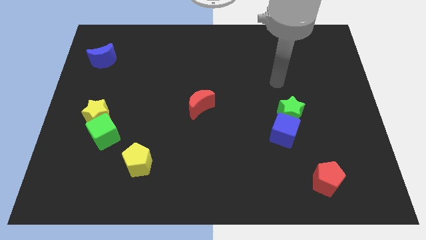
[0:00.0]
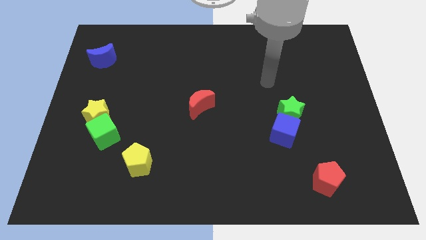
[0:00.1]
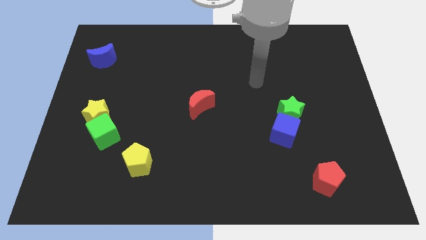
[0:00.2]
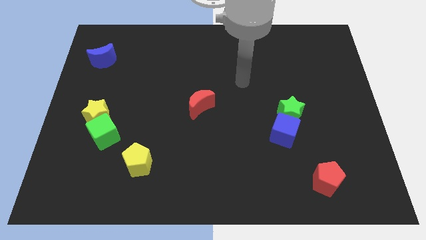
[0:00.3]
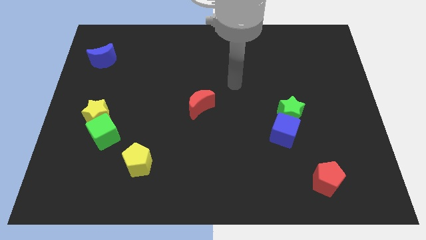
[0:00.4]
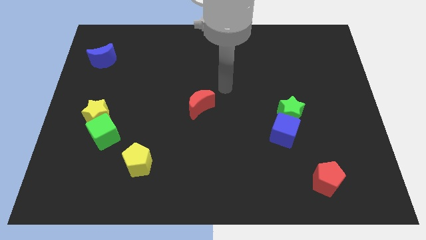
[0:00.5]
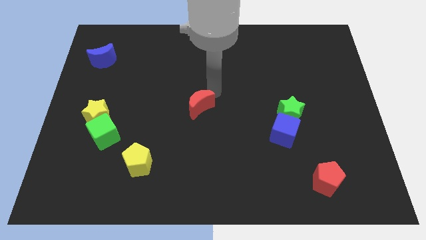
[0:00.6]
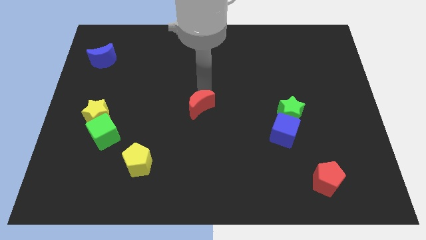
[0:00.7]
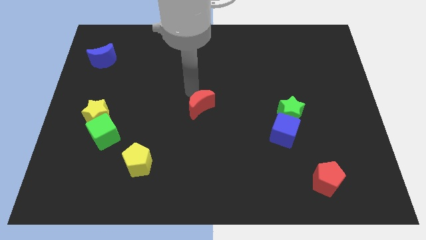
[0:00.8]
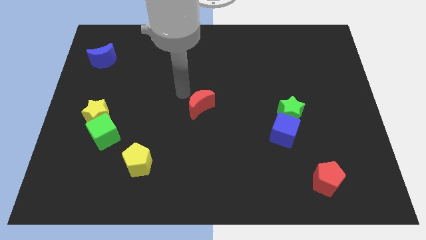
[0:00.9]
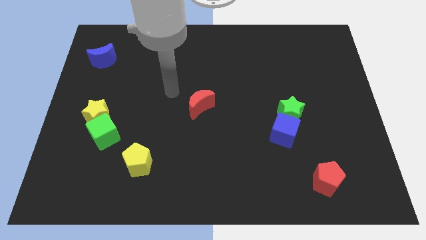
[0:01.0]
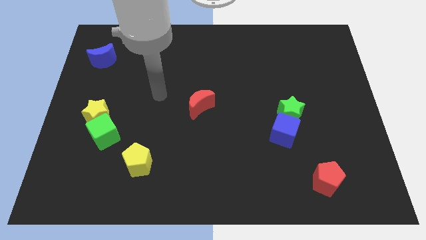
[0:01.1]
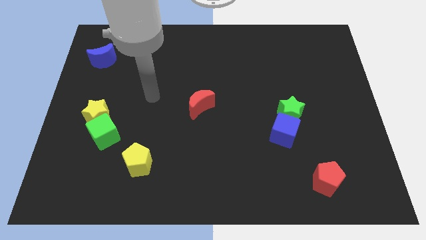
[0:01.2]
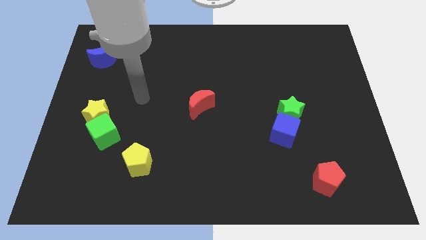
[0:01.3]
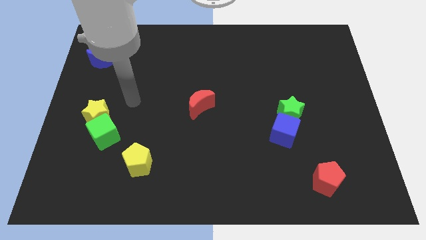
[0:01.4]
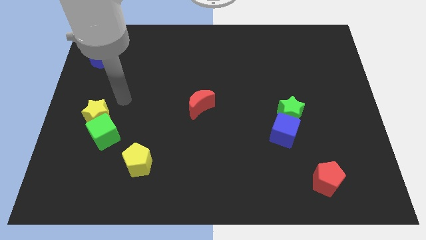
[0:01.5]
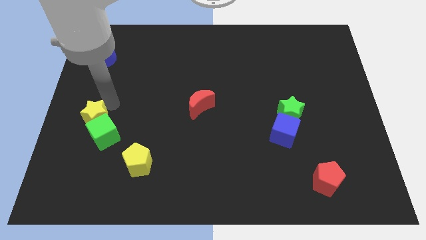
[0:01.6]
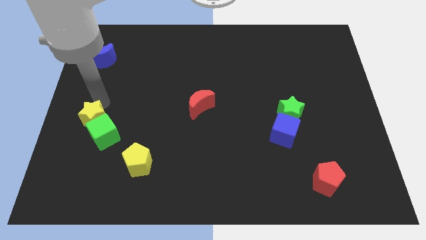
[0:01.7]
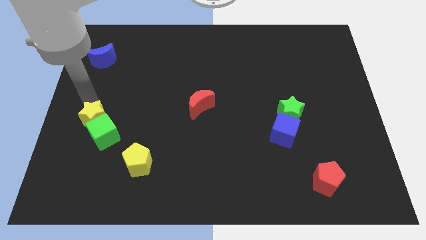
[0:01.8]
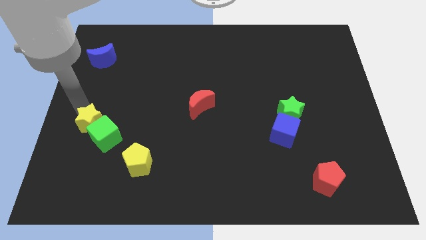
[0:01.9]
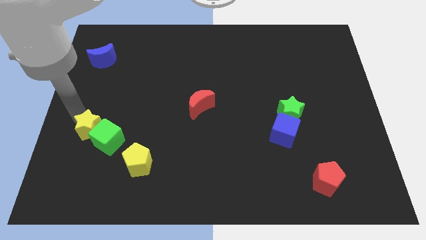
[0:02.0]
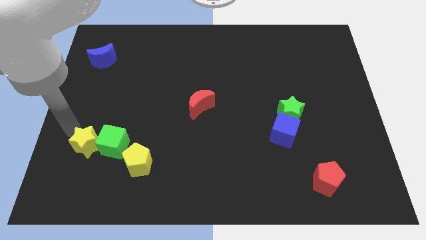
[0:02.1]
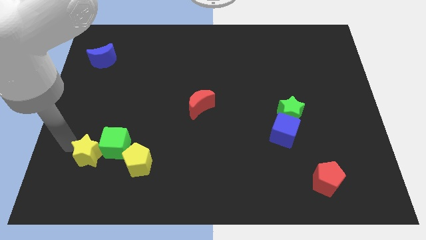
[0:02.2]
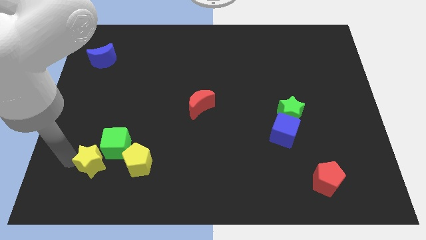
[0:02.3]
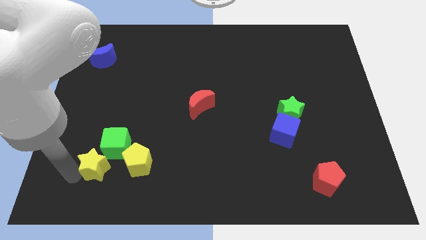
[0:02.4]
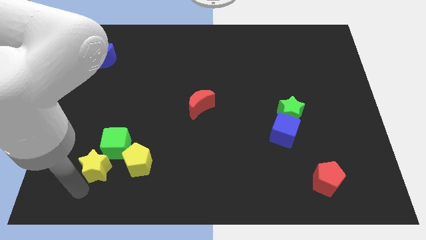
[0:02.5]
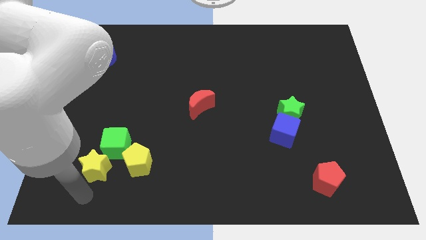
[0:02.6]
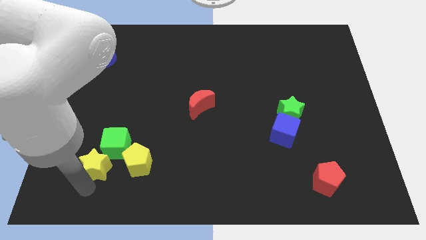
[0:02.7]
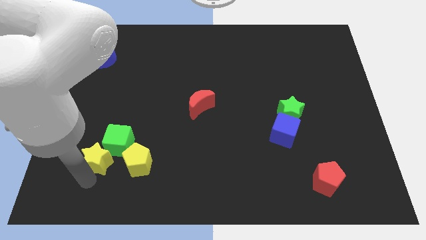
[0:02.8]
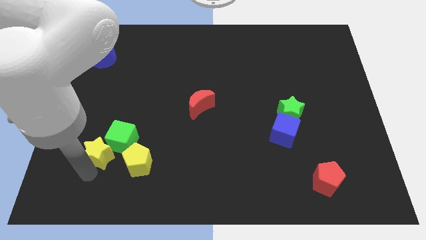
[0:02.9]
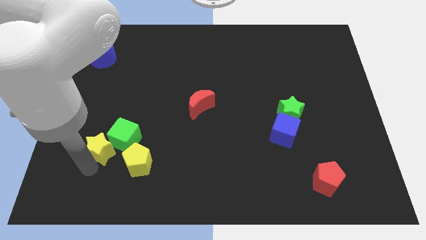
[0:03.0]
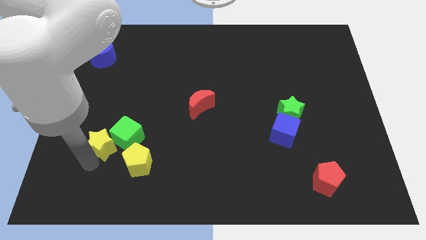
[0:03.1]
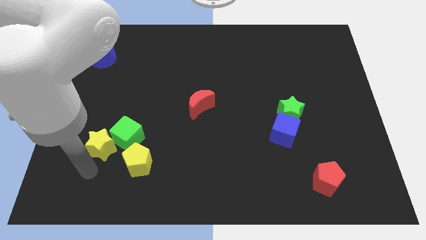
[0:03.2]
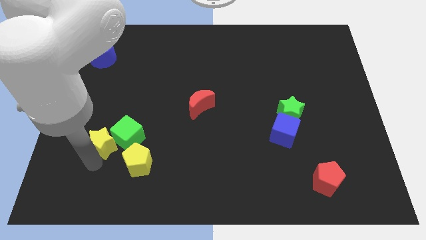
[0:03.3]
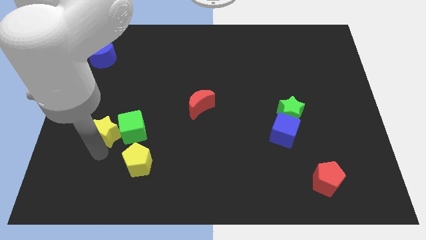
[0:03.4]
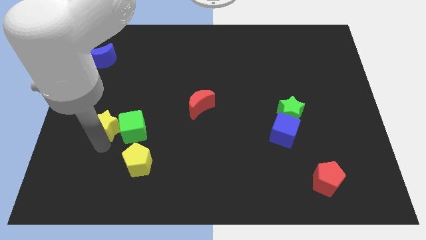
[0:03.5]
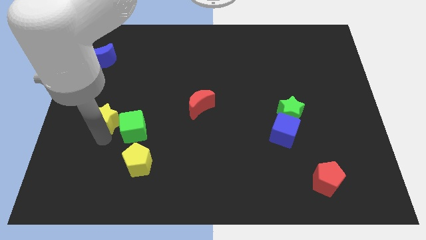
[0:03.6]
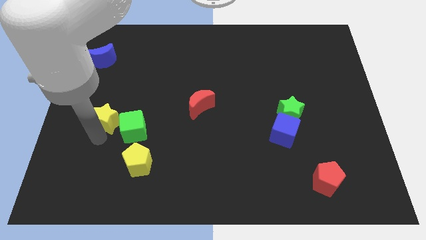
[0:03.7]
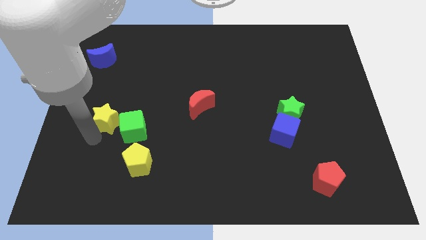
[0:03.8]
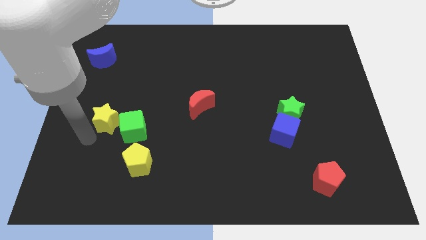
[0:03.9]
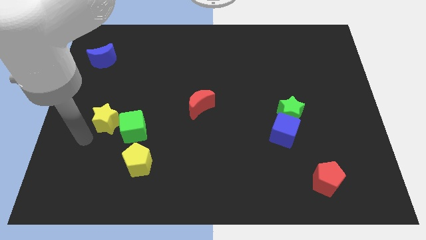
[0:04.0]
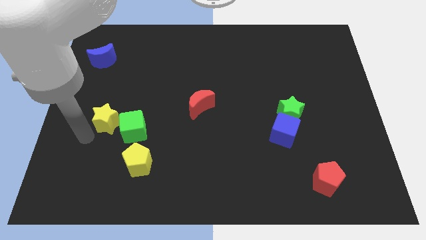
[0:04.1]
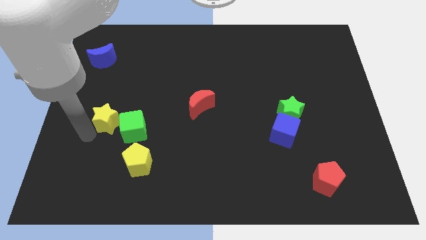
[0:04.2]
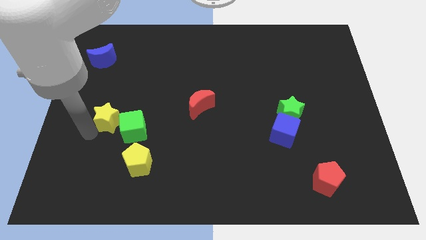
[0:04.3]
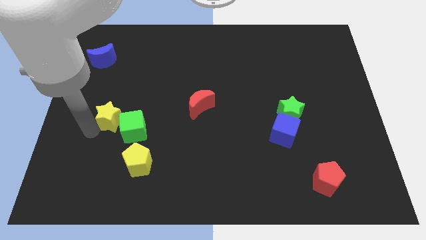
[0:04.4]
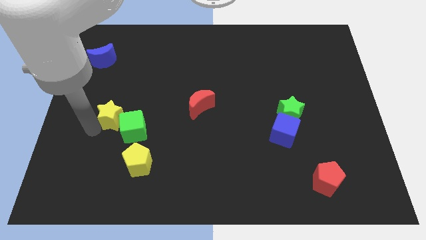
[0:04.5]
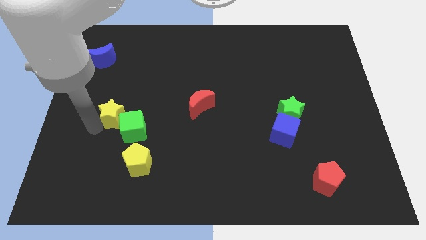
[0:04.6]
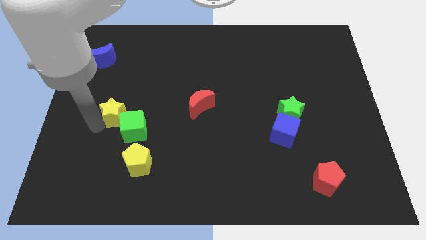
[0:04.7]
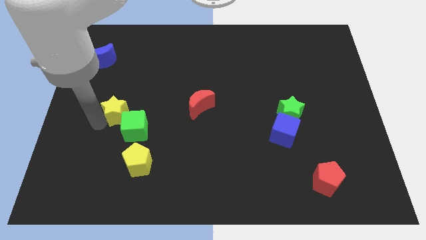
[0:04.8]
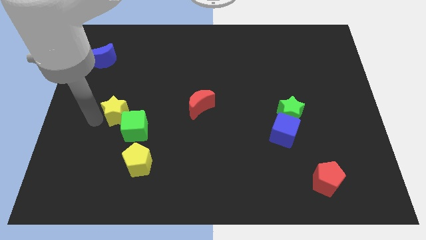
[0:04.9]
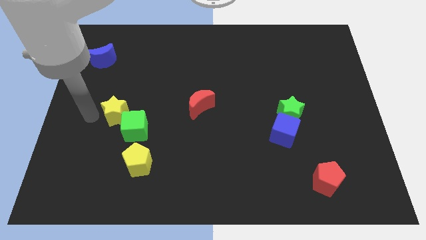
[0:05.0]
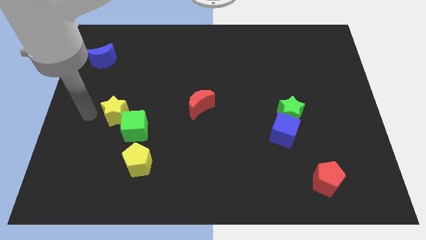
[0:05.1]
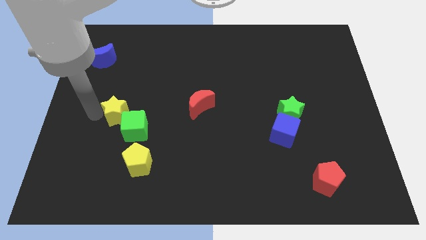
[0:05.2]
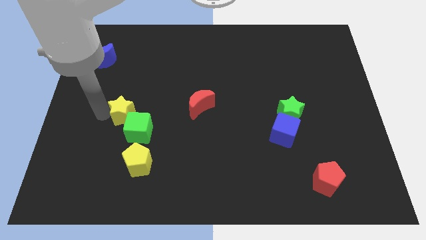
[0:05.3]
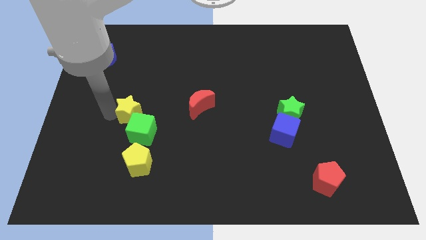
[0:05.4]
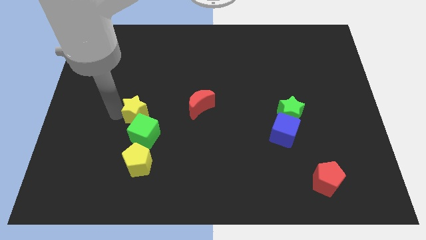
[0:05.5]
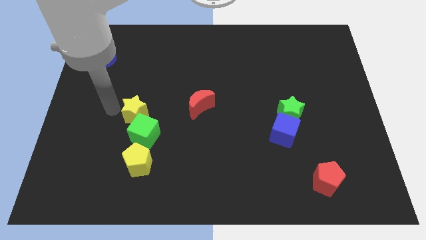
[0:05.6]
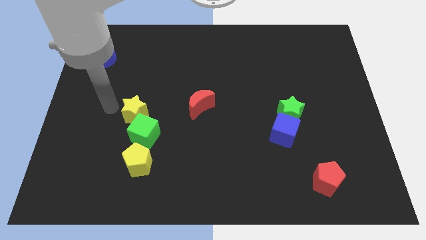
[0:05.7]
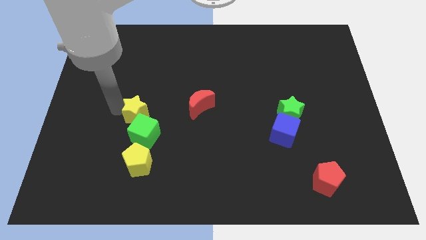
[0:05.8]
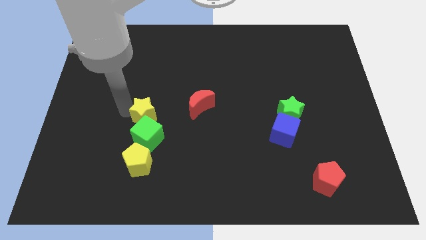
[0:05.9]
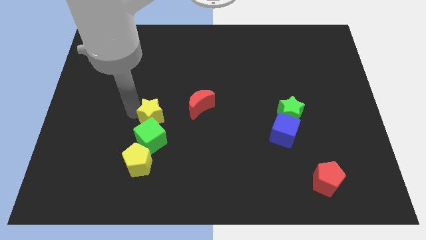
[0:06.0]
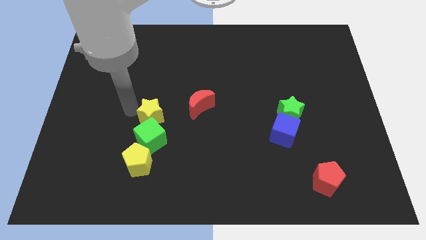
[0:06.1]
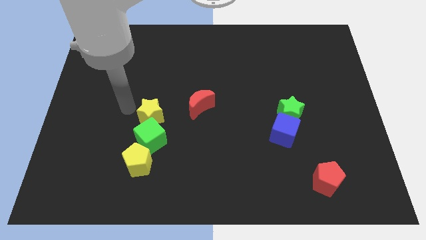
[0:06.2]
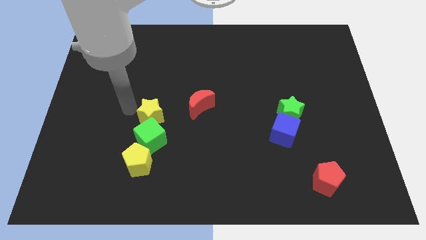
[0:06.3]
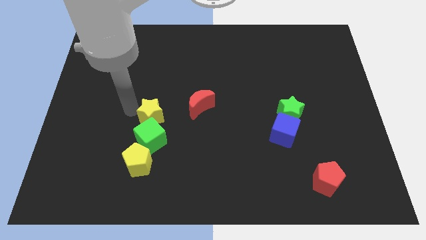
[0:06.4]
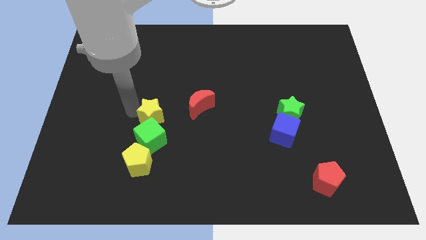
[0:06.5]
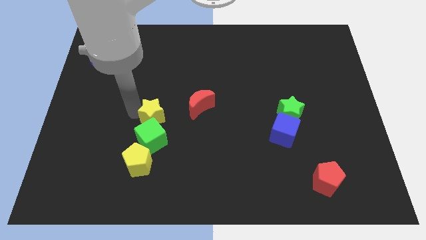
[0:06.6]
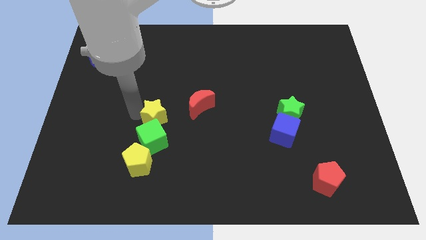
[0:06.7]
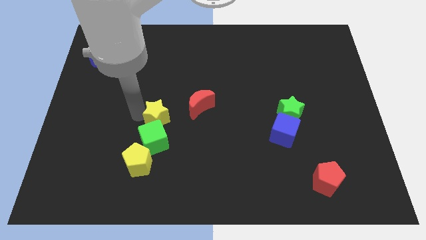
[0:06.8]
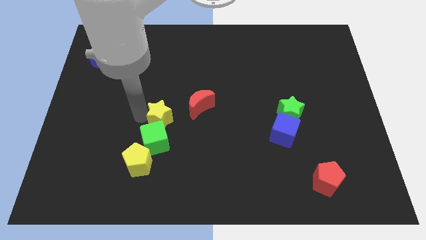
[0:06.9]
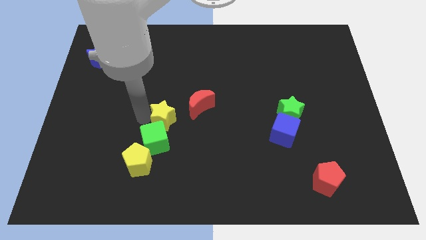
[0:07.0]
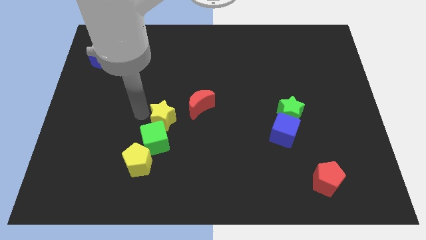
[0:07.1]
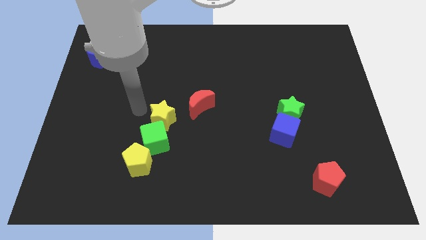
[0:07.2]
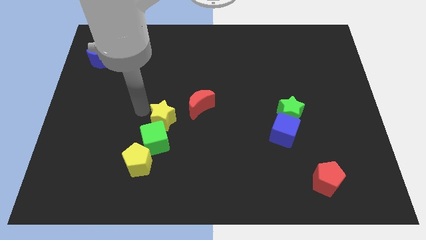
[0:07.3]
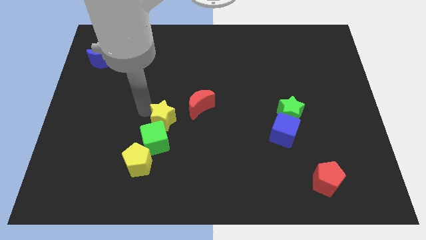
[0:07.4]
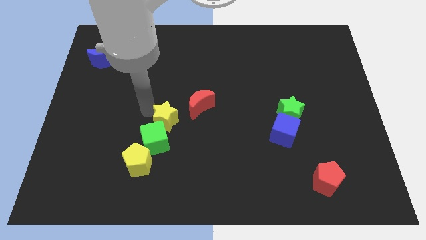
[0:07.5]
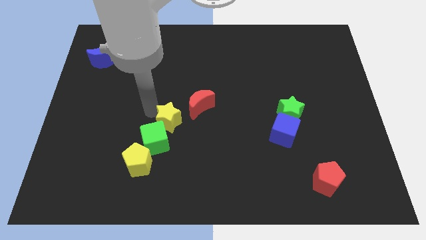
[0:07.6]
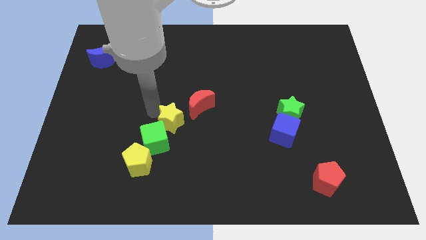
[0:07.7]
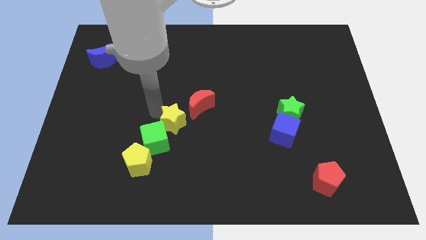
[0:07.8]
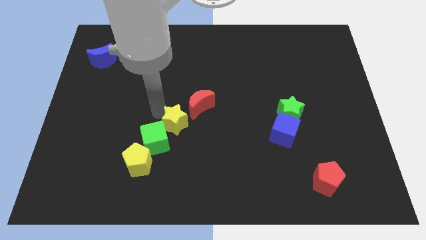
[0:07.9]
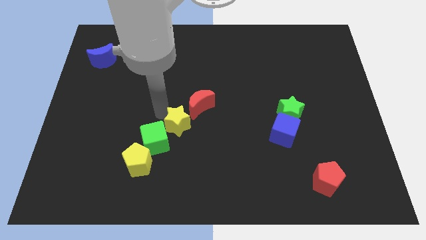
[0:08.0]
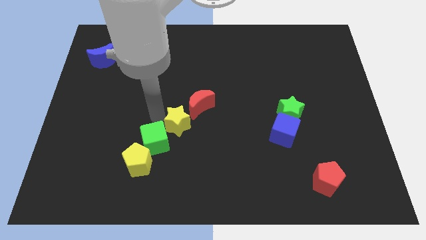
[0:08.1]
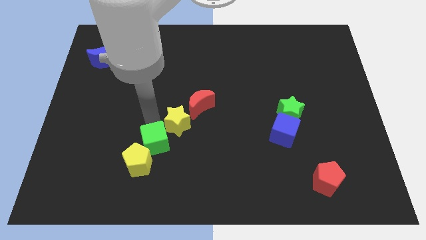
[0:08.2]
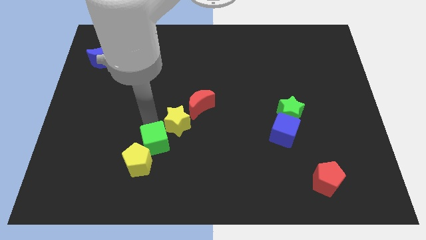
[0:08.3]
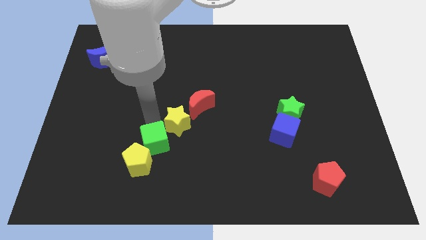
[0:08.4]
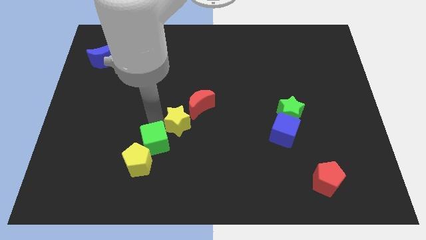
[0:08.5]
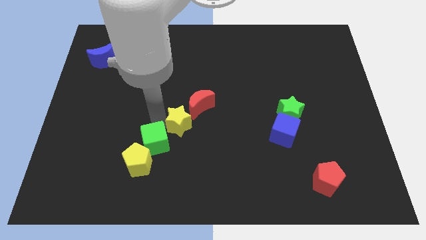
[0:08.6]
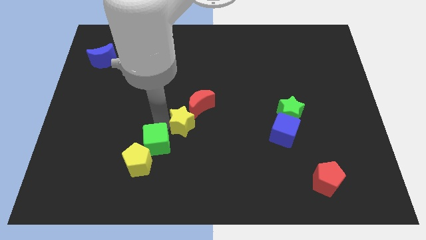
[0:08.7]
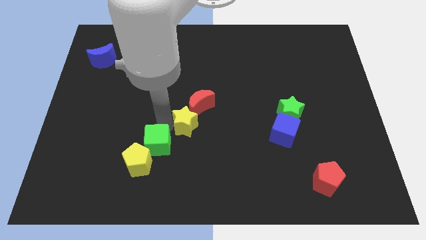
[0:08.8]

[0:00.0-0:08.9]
slide the yellow star to the right
